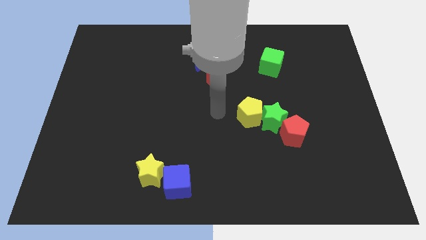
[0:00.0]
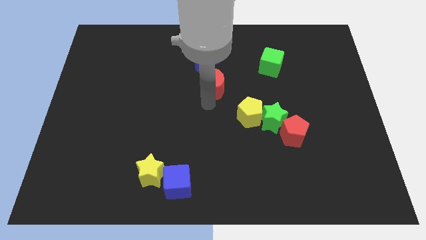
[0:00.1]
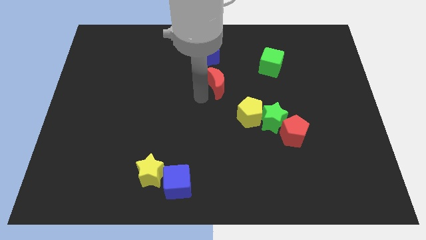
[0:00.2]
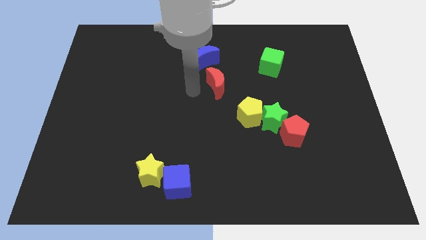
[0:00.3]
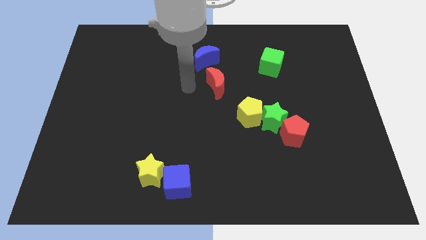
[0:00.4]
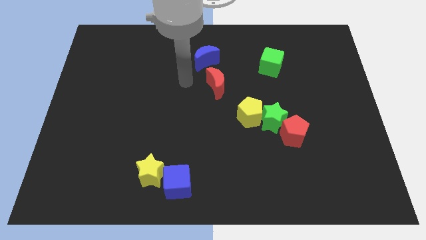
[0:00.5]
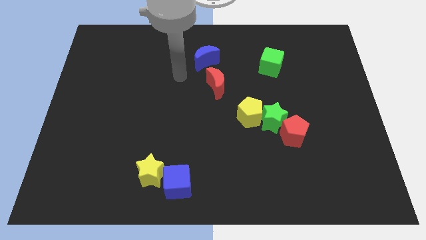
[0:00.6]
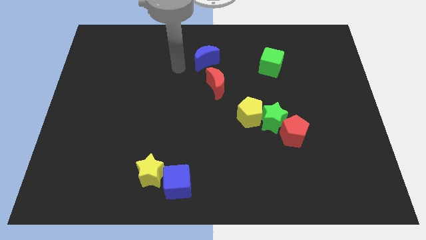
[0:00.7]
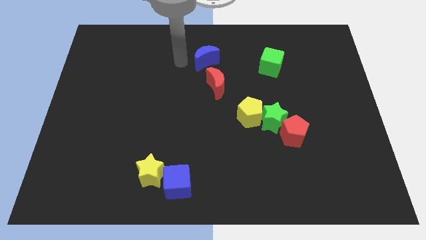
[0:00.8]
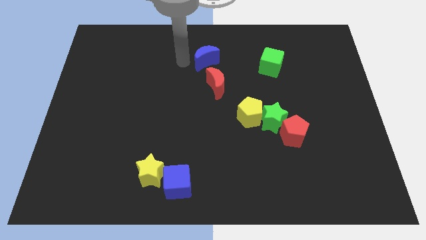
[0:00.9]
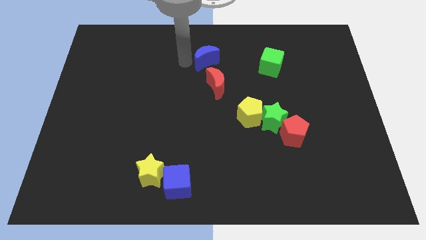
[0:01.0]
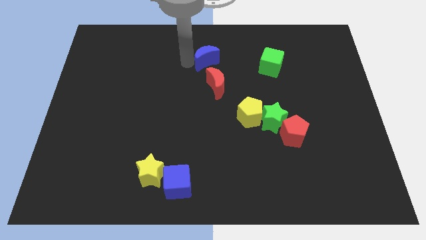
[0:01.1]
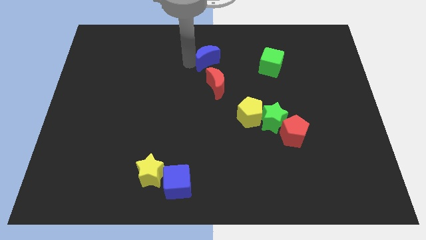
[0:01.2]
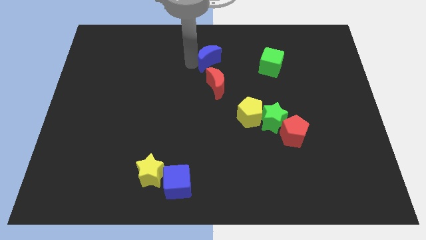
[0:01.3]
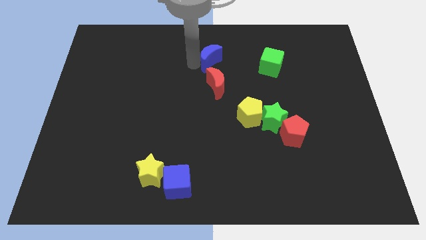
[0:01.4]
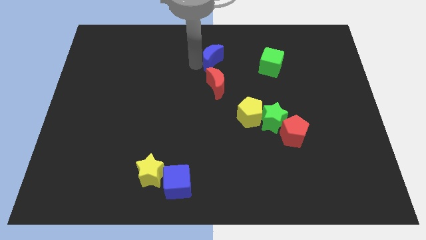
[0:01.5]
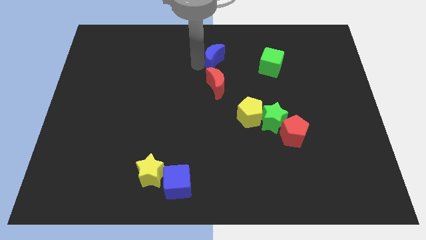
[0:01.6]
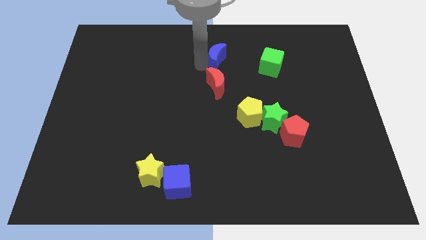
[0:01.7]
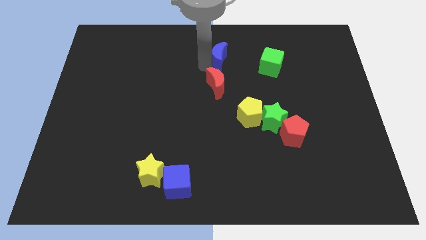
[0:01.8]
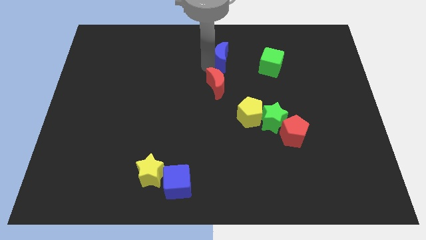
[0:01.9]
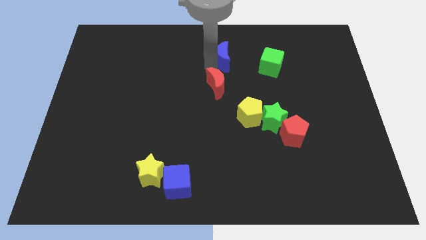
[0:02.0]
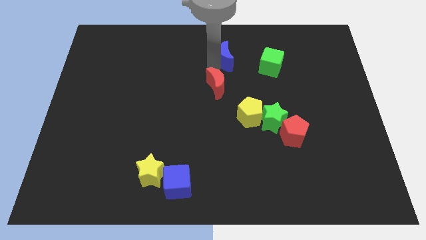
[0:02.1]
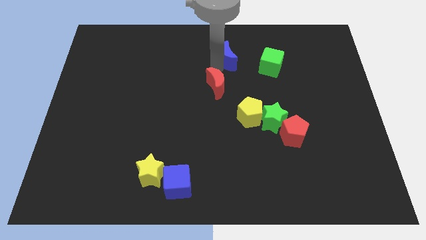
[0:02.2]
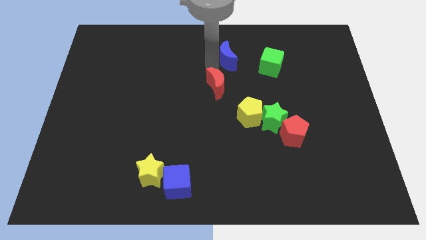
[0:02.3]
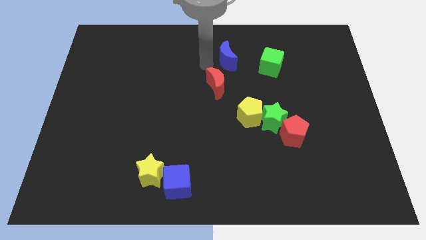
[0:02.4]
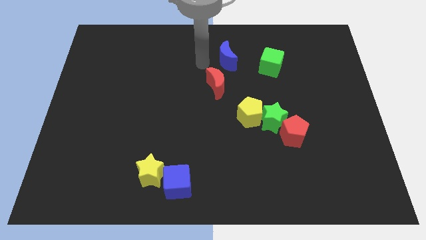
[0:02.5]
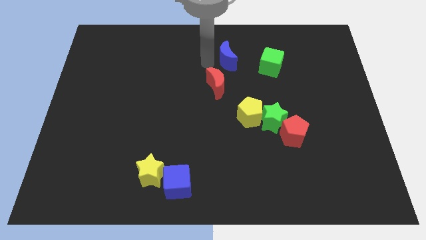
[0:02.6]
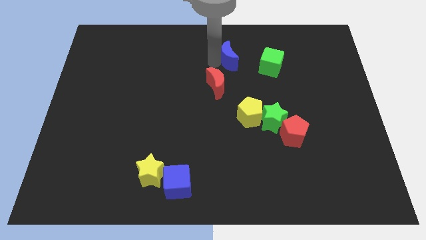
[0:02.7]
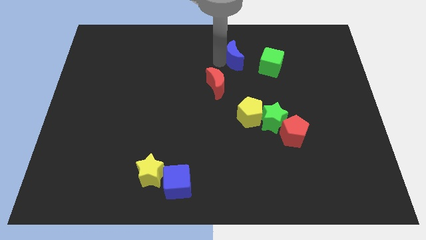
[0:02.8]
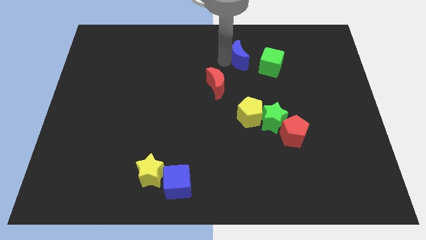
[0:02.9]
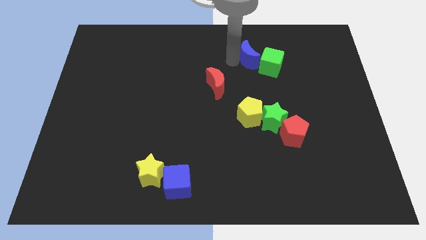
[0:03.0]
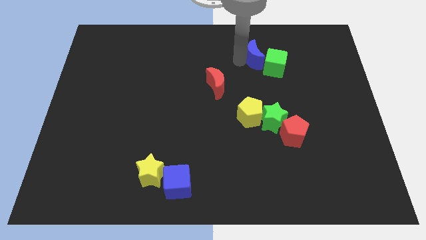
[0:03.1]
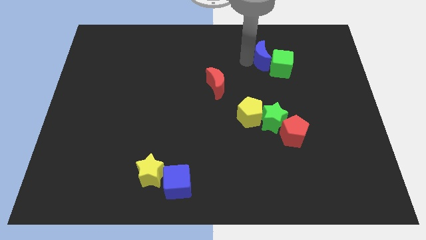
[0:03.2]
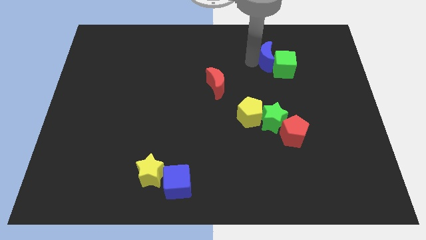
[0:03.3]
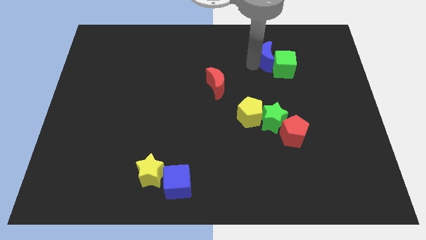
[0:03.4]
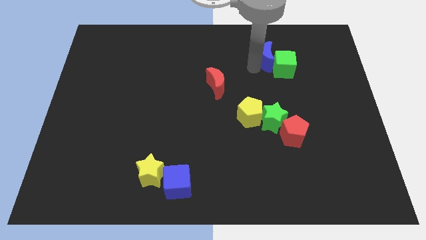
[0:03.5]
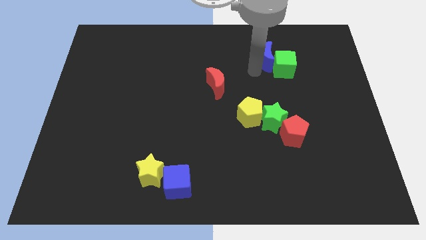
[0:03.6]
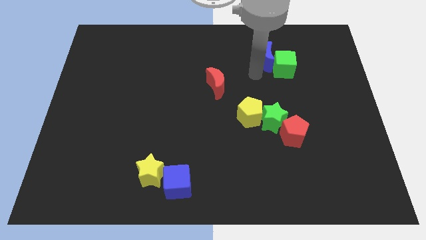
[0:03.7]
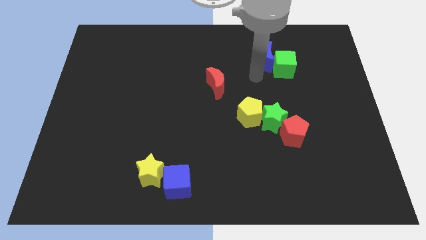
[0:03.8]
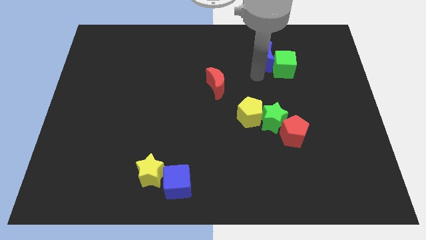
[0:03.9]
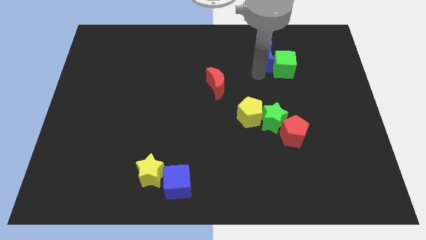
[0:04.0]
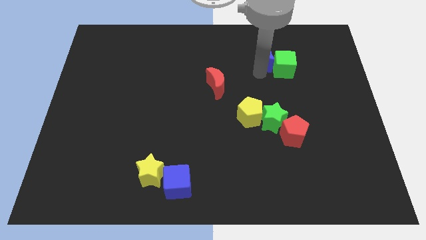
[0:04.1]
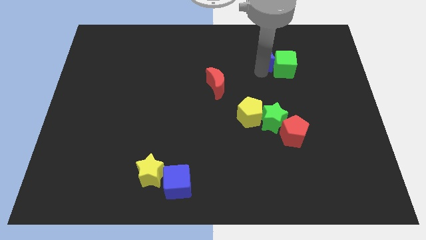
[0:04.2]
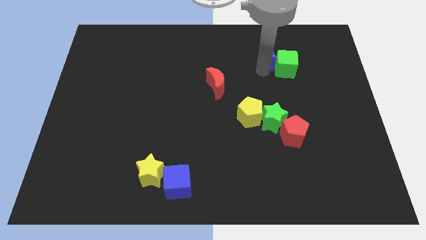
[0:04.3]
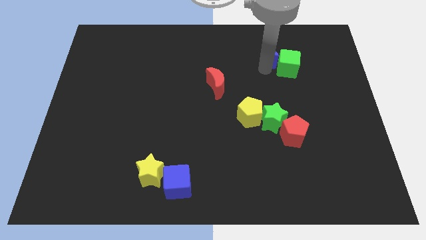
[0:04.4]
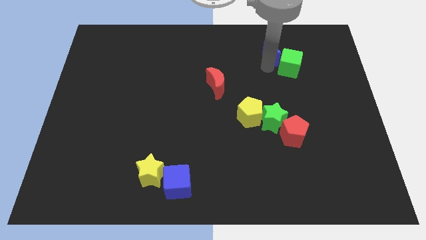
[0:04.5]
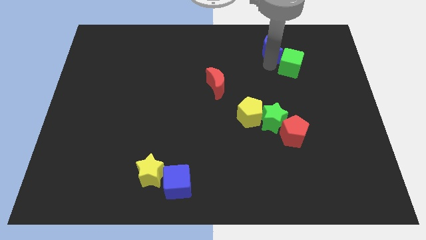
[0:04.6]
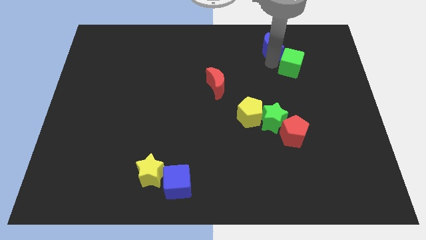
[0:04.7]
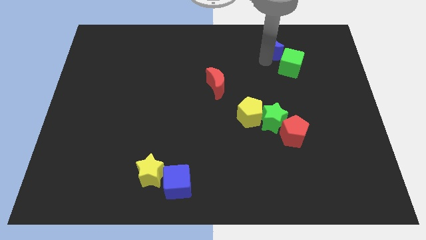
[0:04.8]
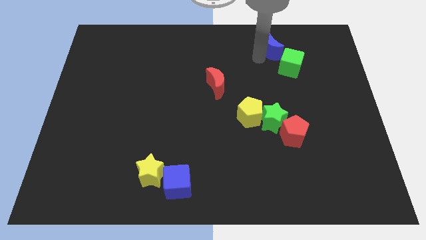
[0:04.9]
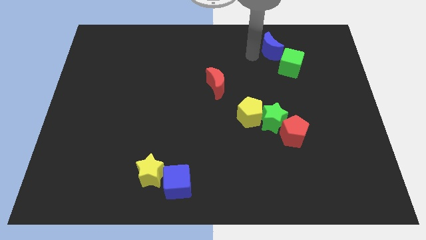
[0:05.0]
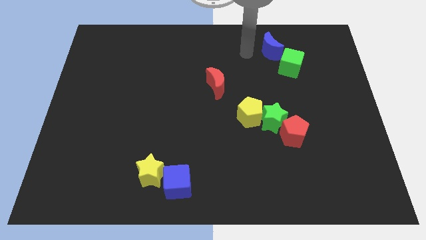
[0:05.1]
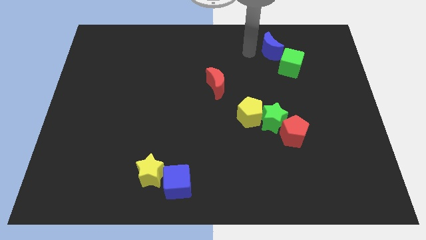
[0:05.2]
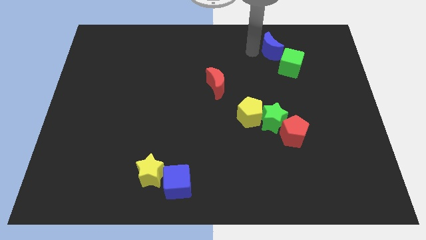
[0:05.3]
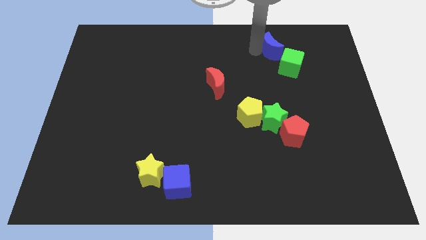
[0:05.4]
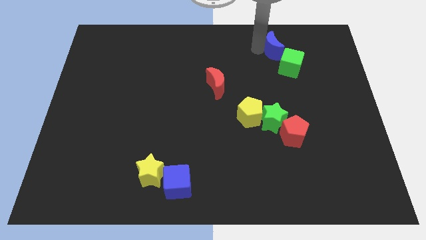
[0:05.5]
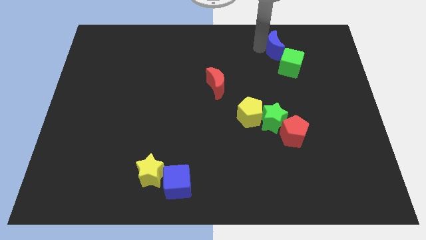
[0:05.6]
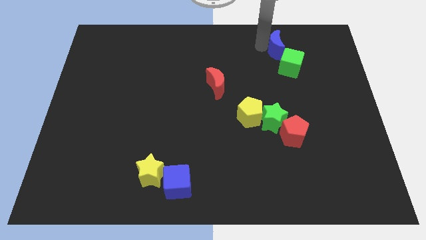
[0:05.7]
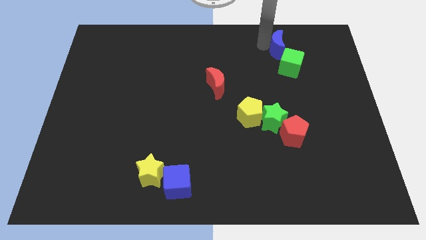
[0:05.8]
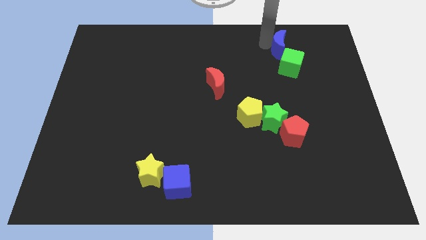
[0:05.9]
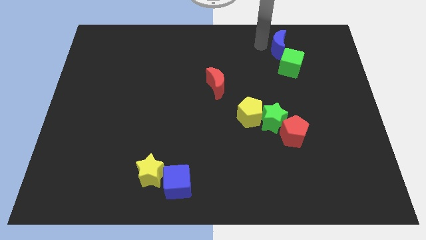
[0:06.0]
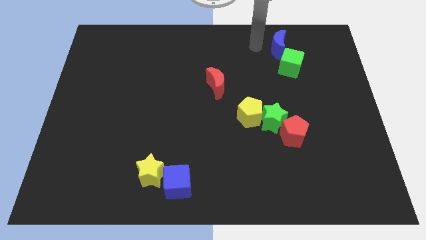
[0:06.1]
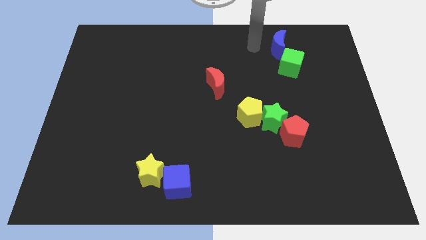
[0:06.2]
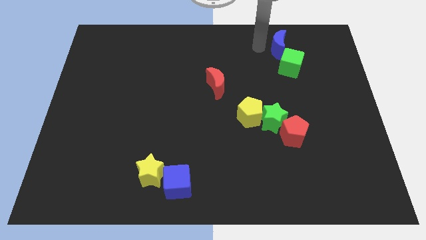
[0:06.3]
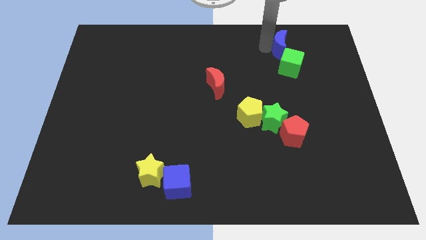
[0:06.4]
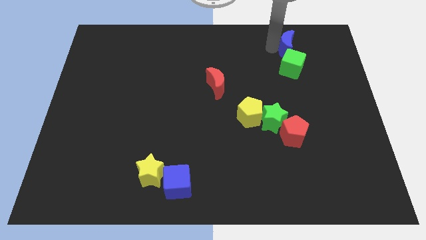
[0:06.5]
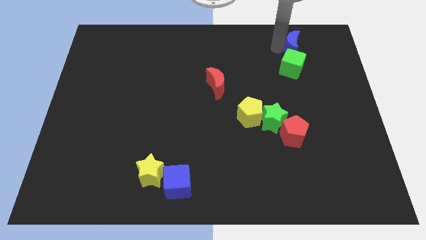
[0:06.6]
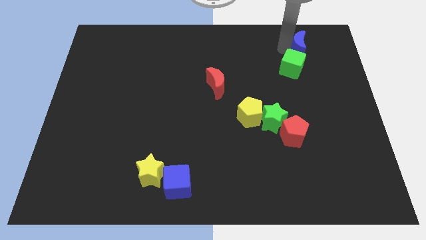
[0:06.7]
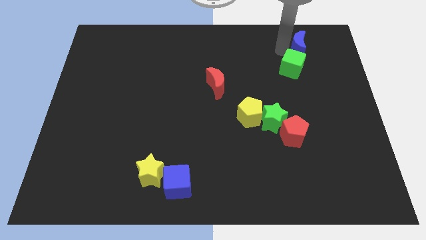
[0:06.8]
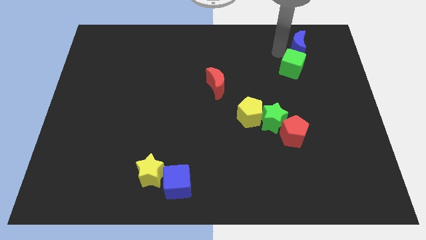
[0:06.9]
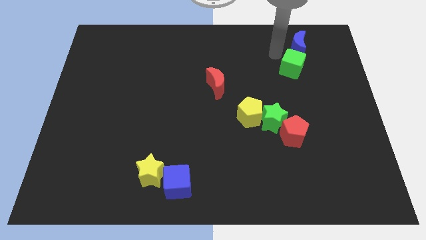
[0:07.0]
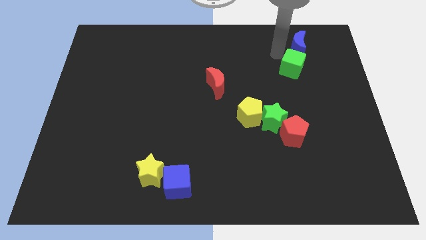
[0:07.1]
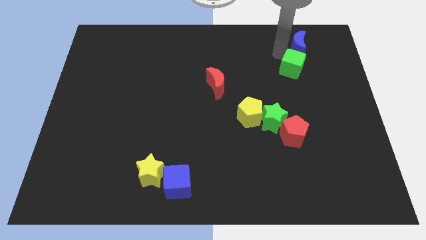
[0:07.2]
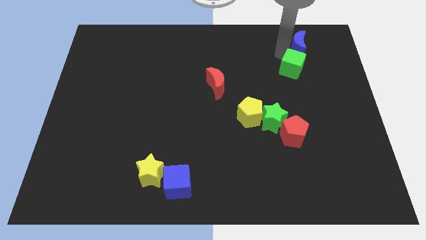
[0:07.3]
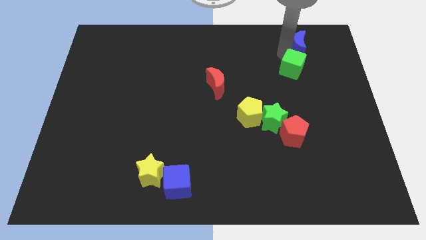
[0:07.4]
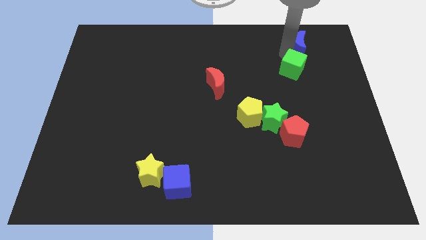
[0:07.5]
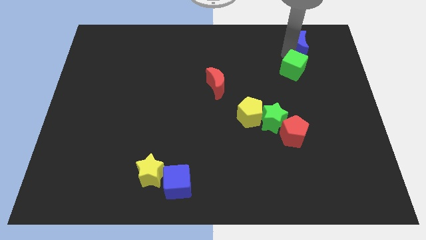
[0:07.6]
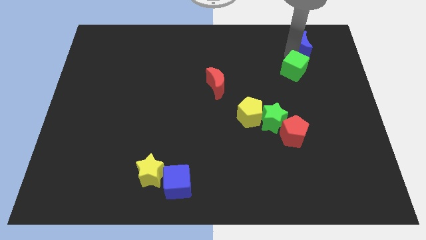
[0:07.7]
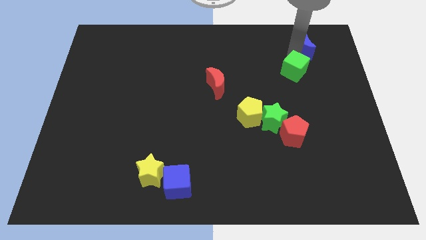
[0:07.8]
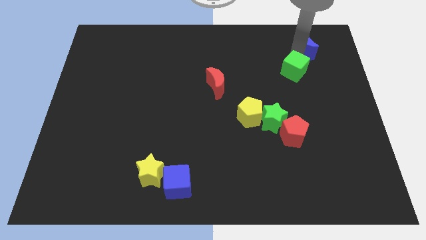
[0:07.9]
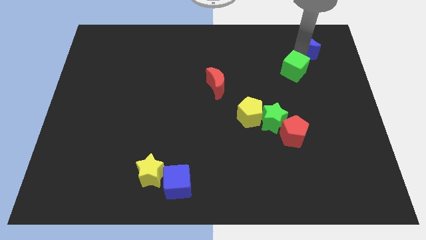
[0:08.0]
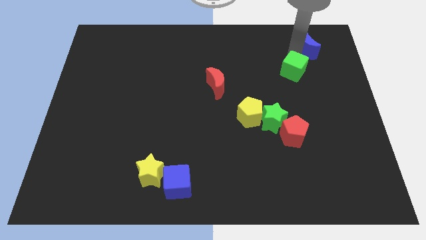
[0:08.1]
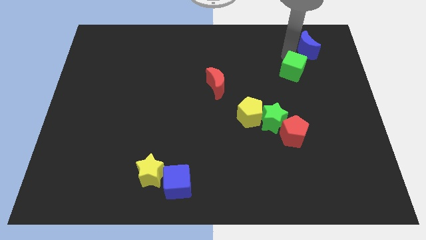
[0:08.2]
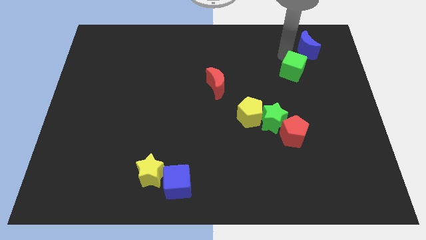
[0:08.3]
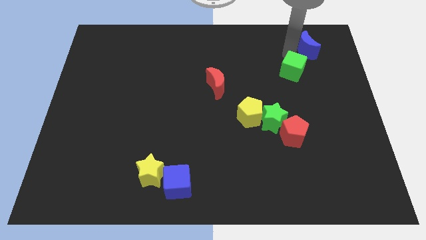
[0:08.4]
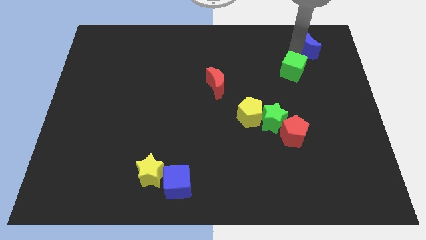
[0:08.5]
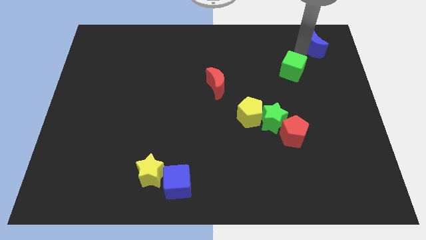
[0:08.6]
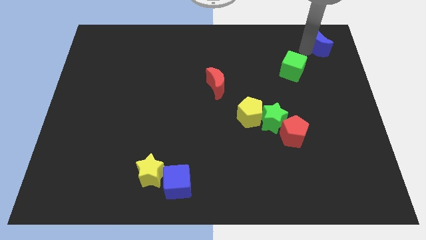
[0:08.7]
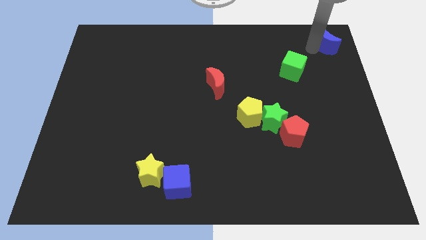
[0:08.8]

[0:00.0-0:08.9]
push the blue moon to the upper right corner
